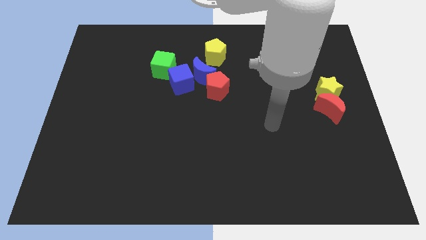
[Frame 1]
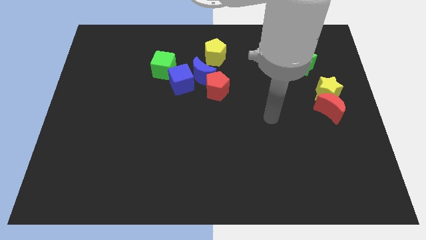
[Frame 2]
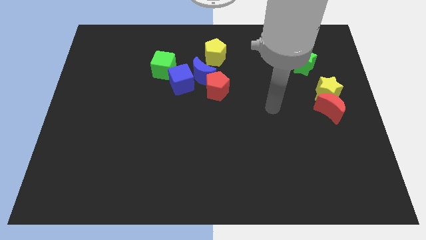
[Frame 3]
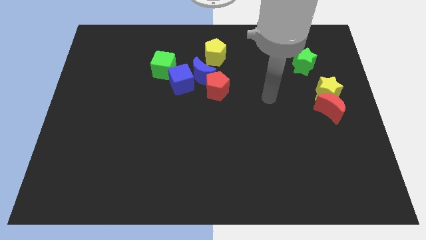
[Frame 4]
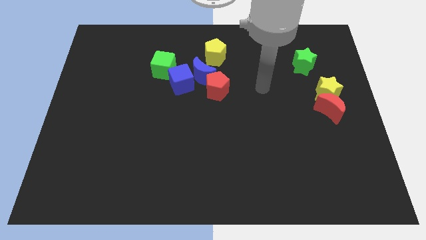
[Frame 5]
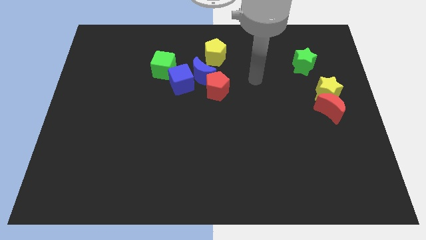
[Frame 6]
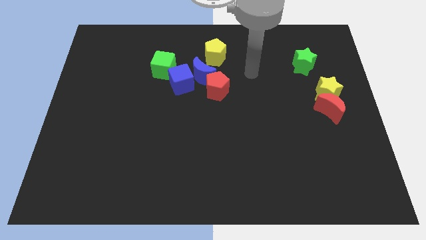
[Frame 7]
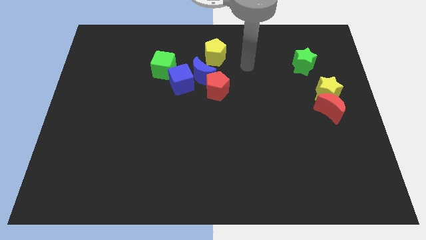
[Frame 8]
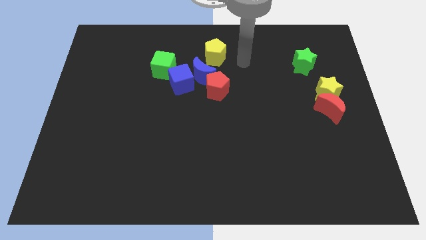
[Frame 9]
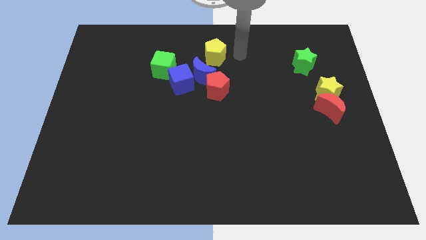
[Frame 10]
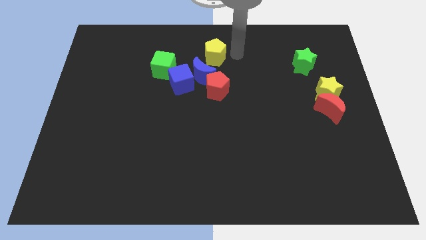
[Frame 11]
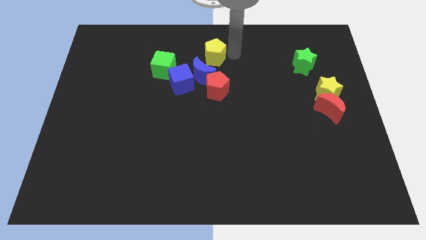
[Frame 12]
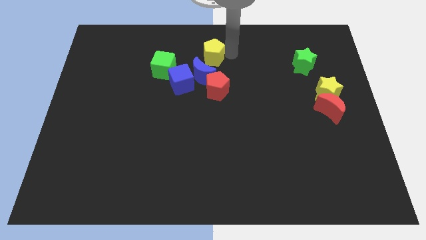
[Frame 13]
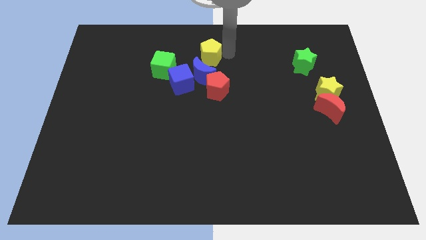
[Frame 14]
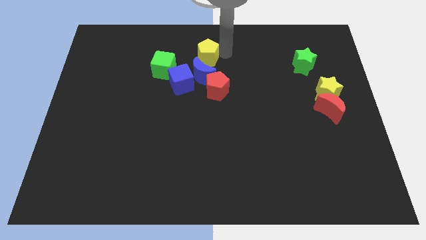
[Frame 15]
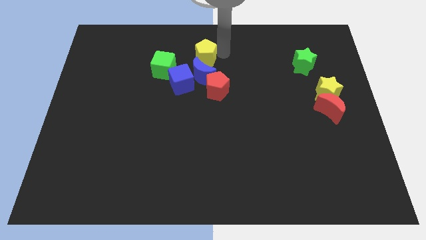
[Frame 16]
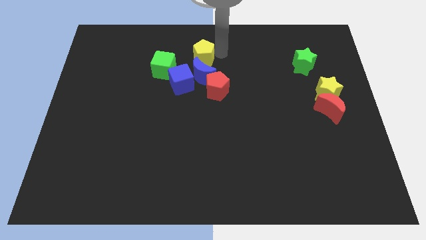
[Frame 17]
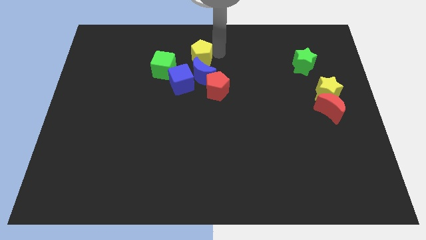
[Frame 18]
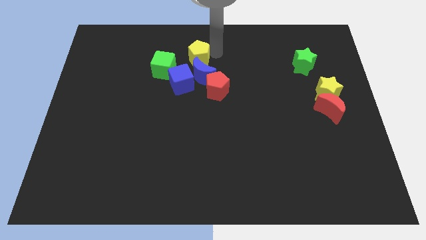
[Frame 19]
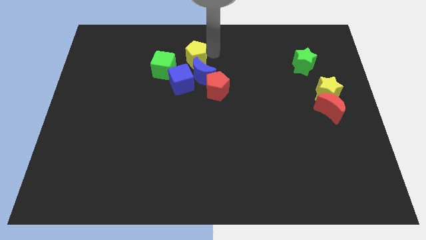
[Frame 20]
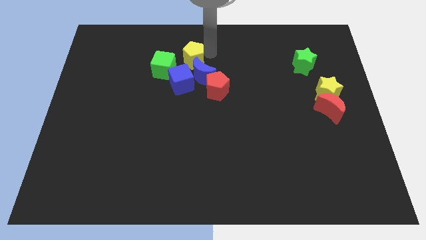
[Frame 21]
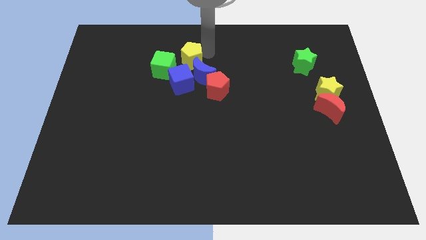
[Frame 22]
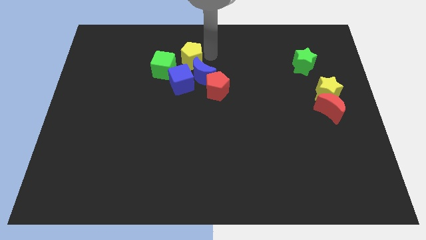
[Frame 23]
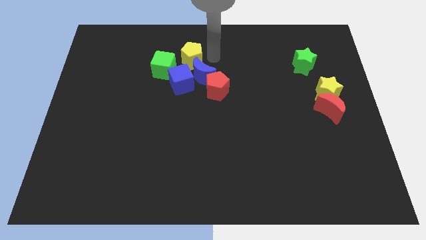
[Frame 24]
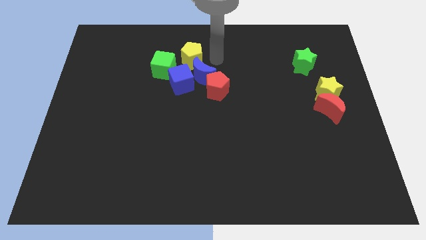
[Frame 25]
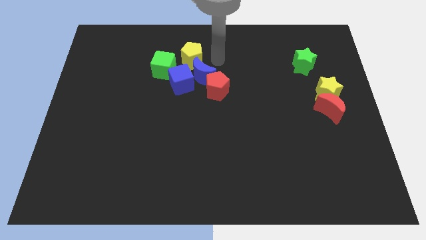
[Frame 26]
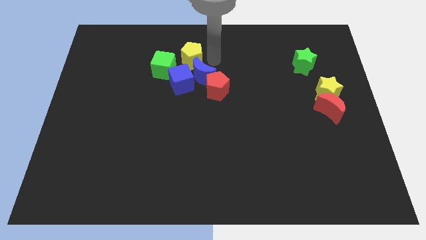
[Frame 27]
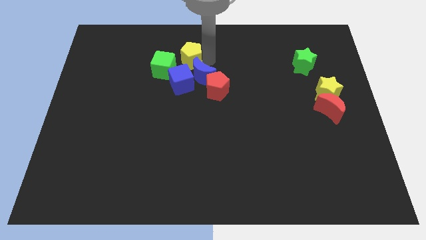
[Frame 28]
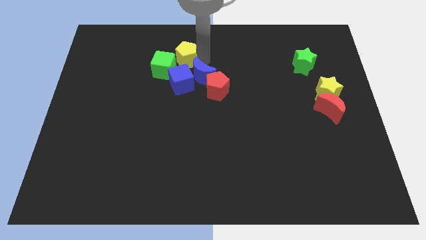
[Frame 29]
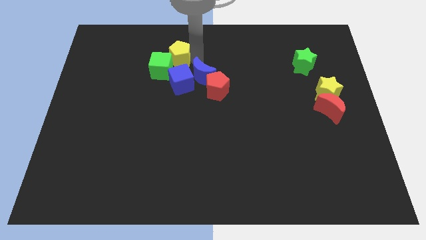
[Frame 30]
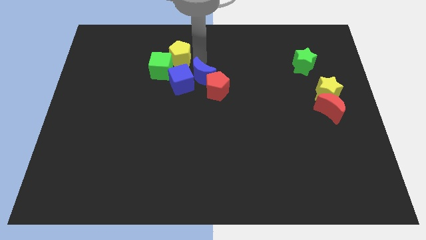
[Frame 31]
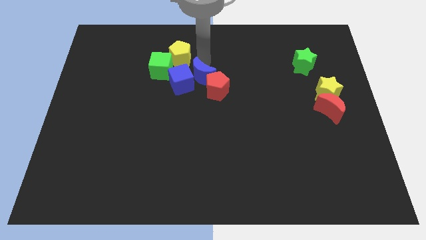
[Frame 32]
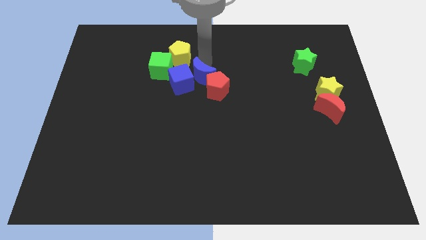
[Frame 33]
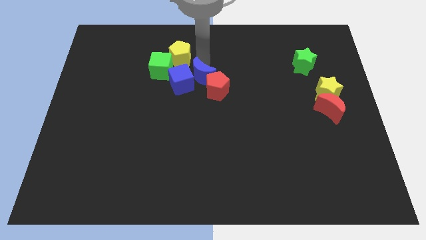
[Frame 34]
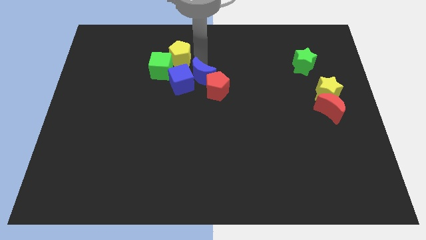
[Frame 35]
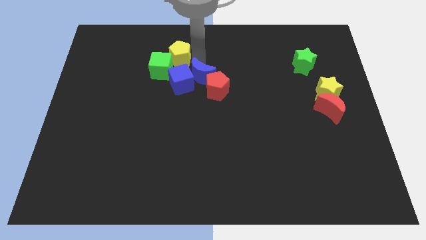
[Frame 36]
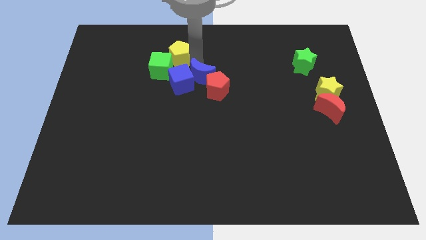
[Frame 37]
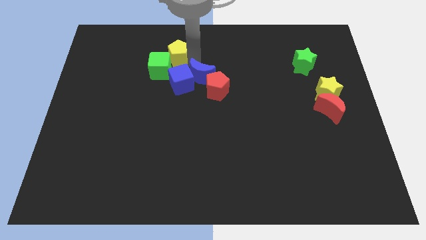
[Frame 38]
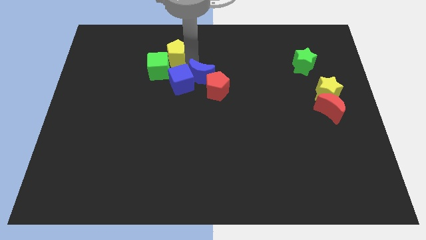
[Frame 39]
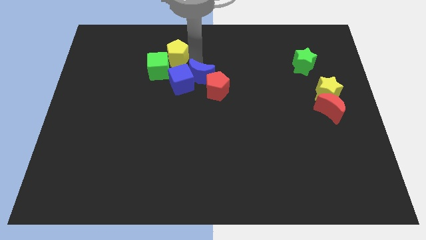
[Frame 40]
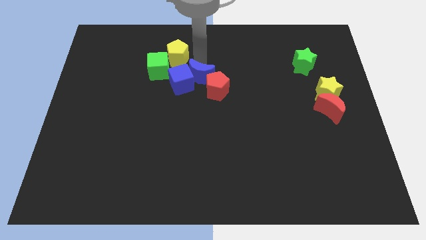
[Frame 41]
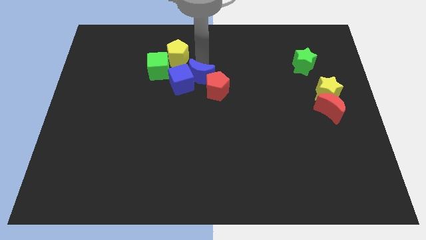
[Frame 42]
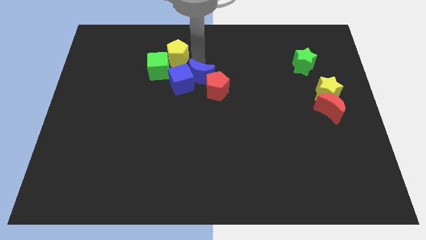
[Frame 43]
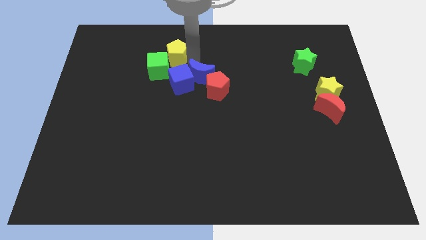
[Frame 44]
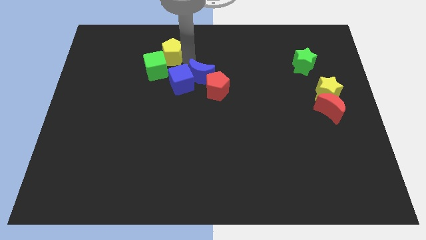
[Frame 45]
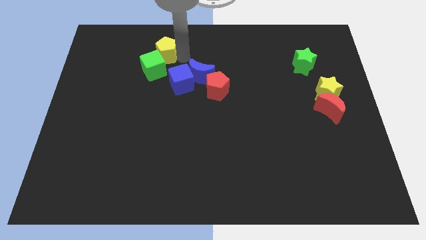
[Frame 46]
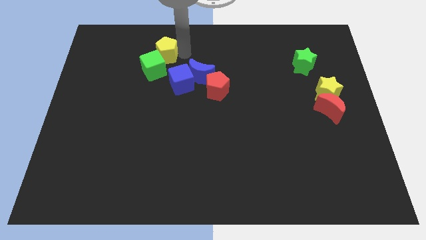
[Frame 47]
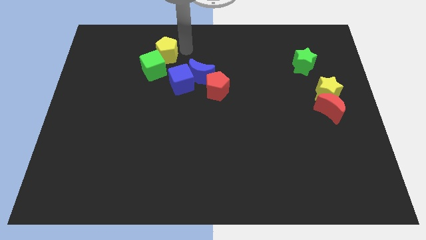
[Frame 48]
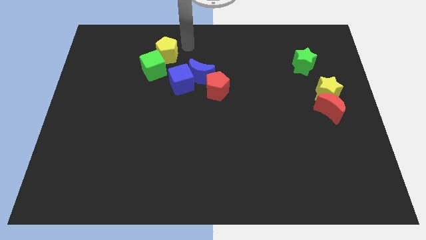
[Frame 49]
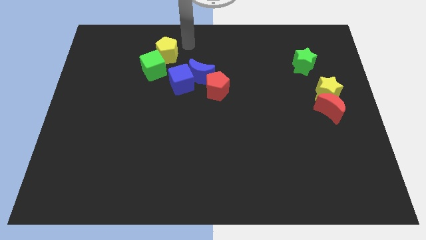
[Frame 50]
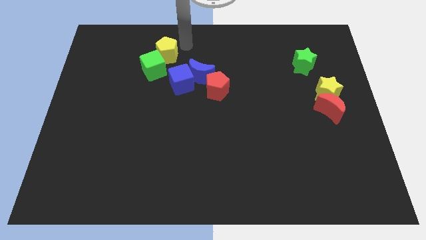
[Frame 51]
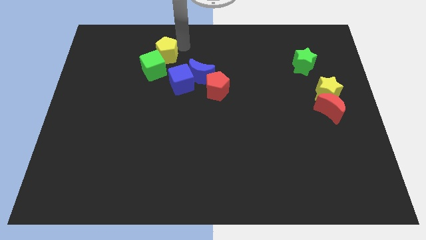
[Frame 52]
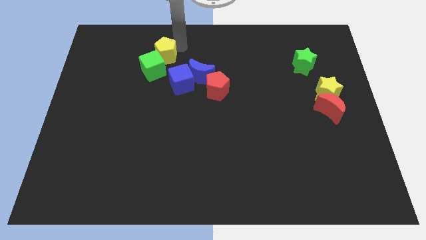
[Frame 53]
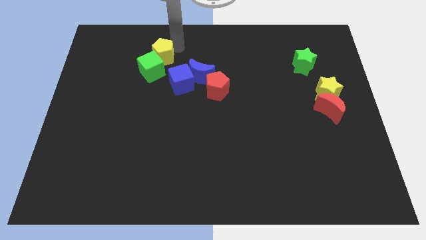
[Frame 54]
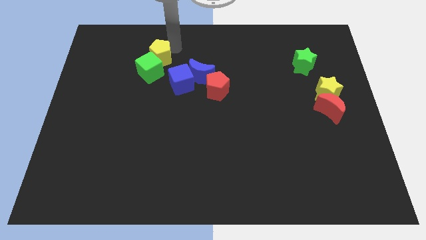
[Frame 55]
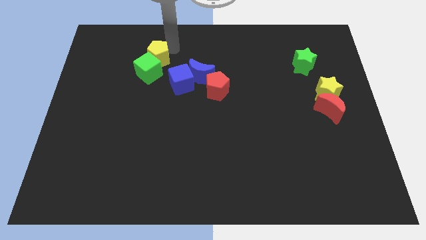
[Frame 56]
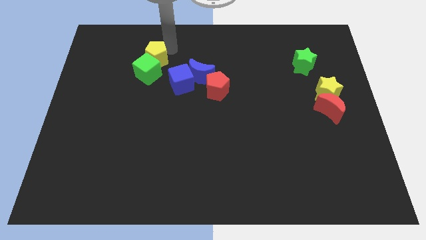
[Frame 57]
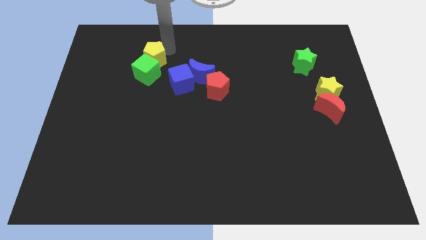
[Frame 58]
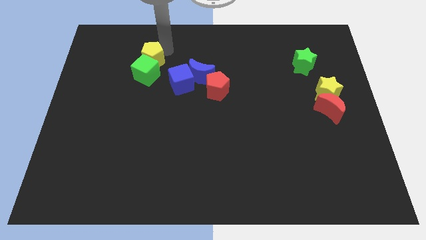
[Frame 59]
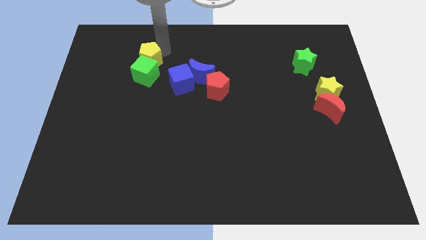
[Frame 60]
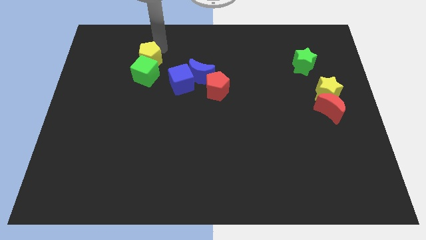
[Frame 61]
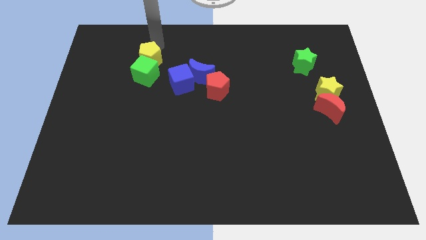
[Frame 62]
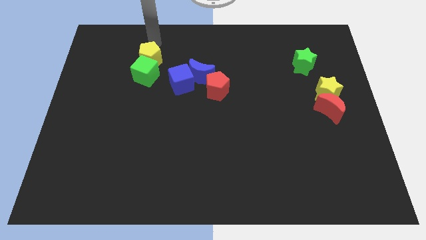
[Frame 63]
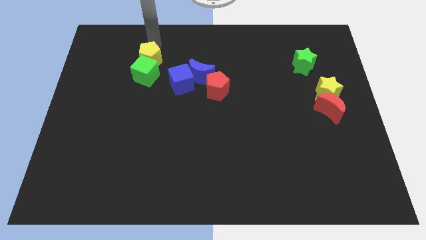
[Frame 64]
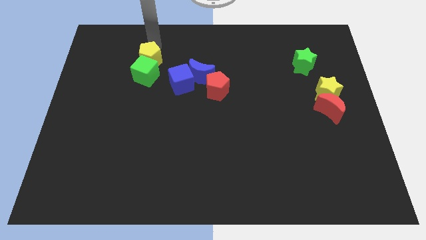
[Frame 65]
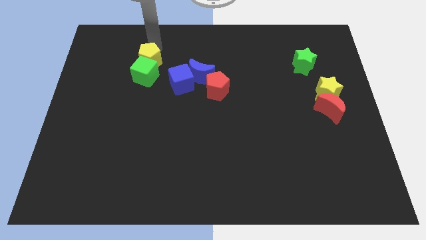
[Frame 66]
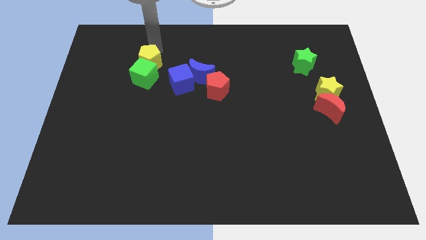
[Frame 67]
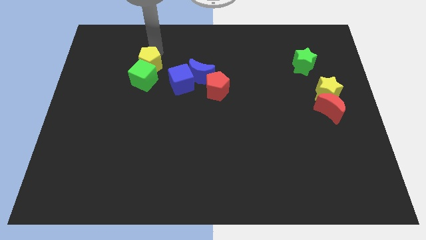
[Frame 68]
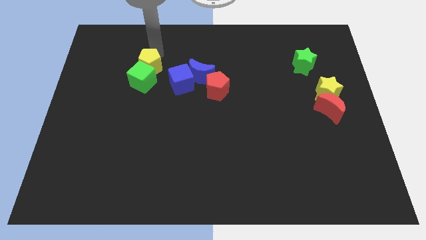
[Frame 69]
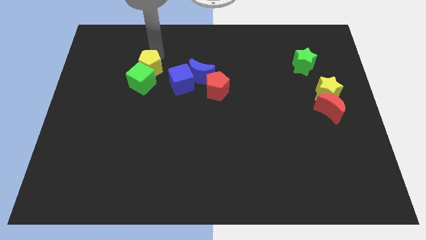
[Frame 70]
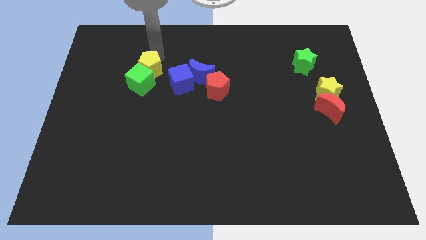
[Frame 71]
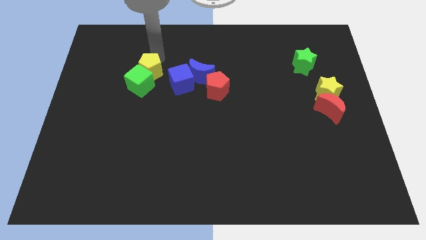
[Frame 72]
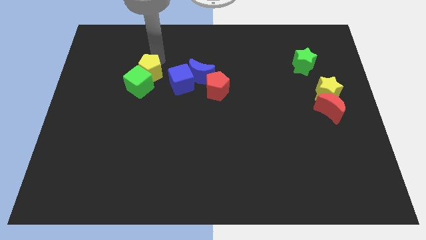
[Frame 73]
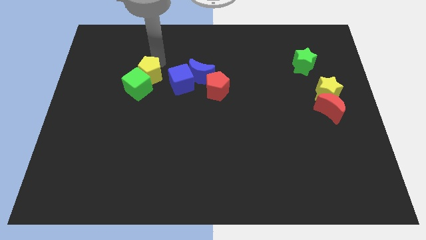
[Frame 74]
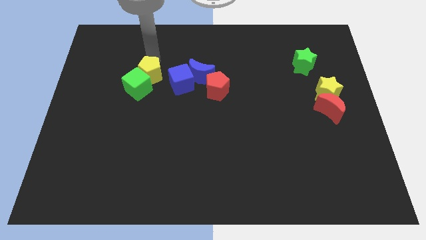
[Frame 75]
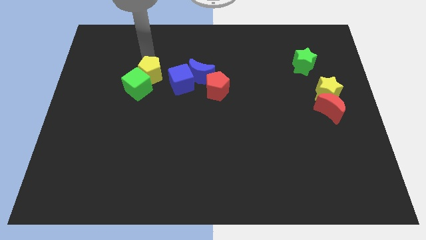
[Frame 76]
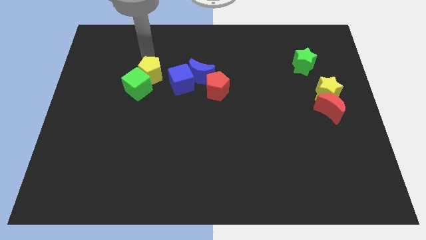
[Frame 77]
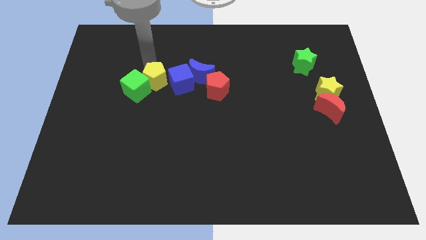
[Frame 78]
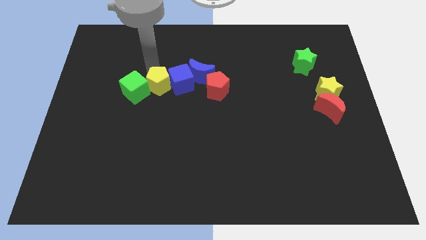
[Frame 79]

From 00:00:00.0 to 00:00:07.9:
slide the yellow pentagon diagonally down and to the left of the blue cube
